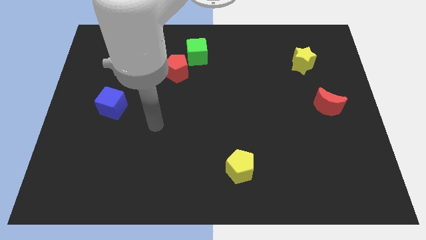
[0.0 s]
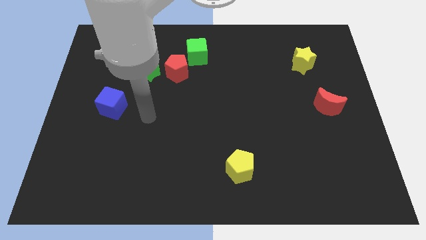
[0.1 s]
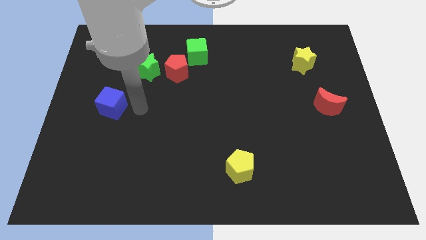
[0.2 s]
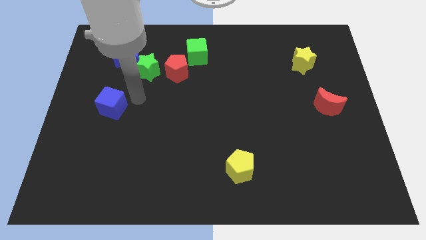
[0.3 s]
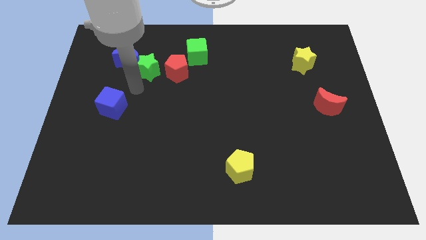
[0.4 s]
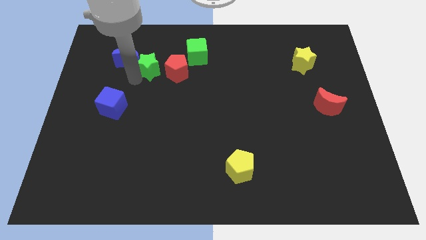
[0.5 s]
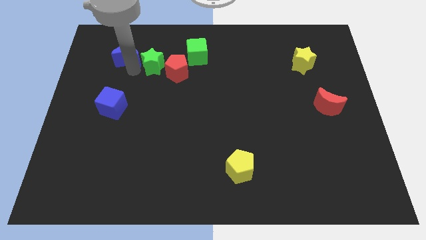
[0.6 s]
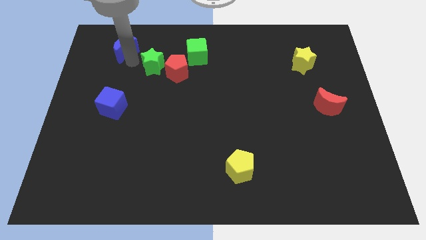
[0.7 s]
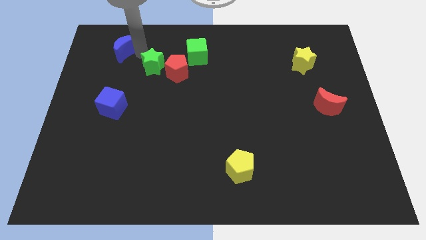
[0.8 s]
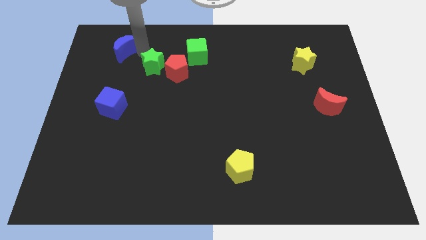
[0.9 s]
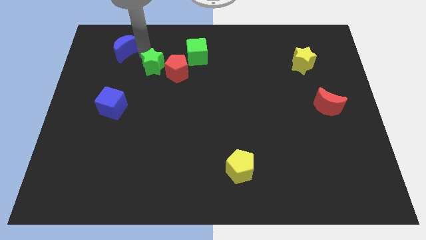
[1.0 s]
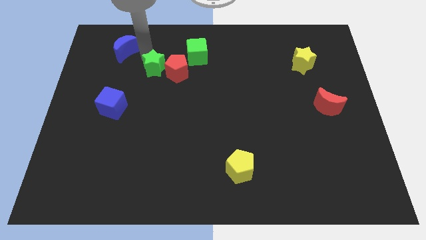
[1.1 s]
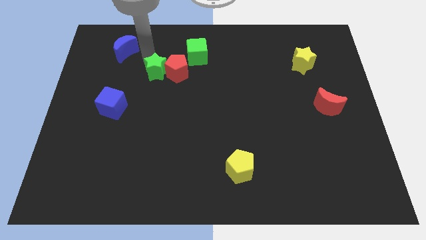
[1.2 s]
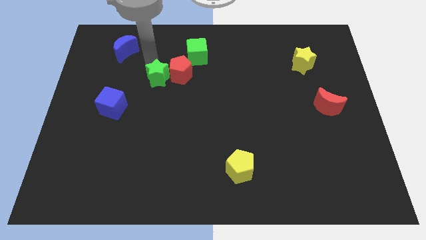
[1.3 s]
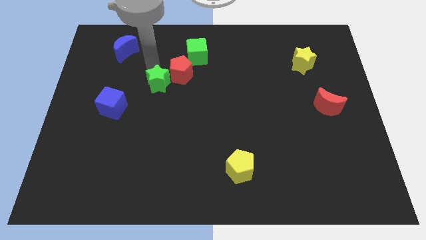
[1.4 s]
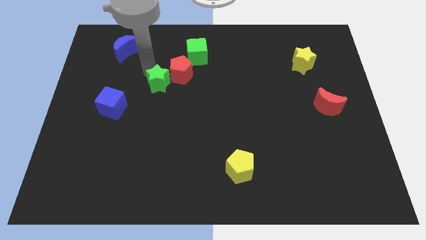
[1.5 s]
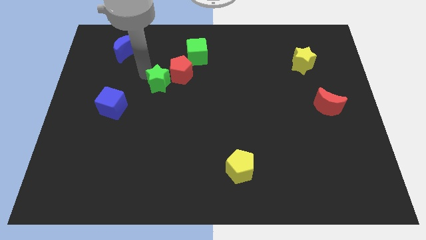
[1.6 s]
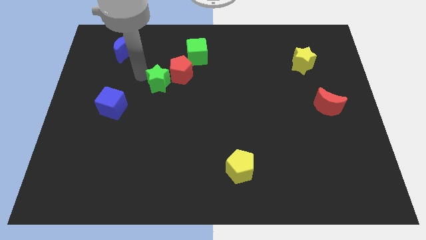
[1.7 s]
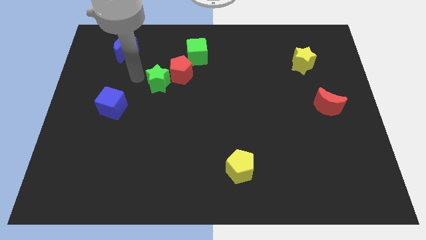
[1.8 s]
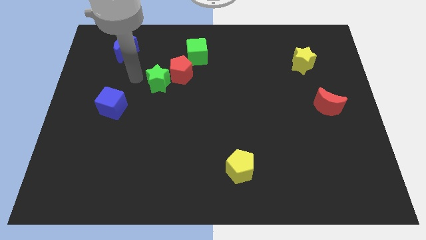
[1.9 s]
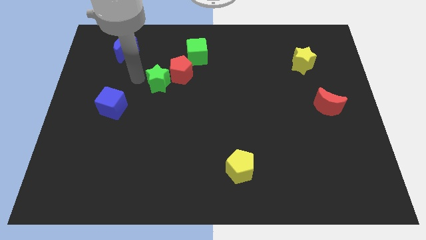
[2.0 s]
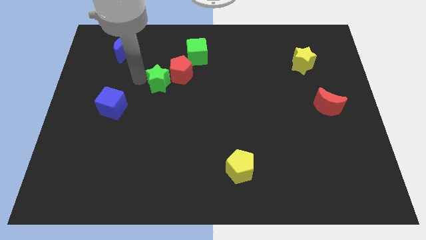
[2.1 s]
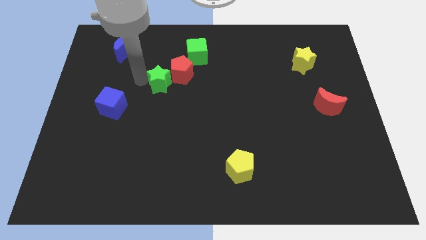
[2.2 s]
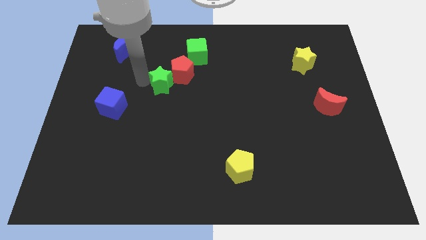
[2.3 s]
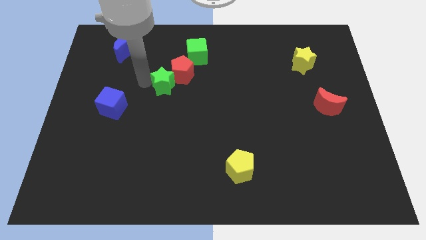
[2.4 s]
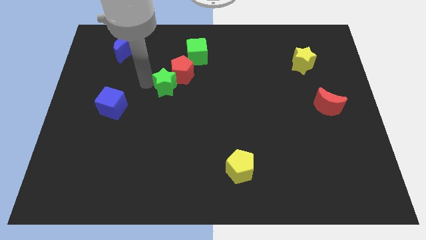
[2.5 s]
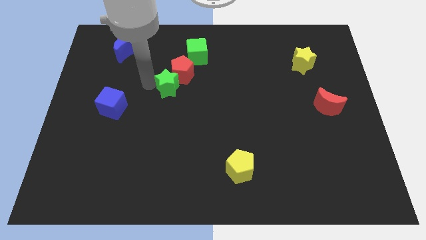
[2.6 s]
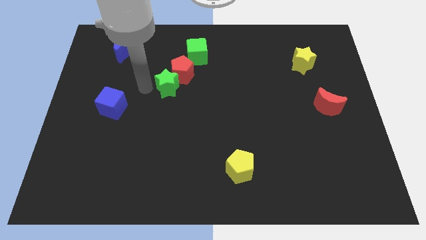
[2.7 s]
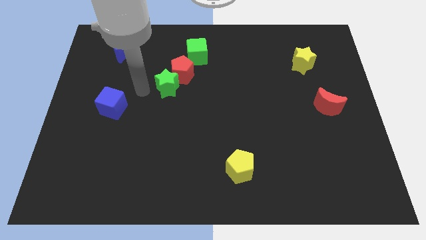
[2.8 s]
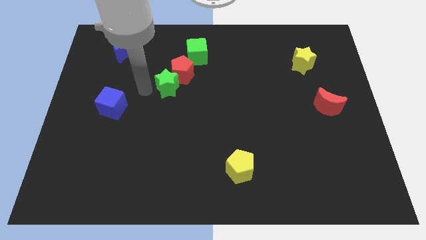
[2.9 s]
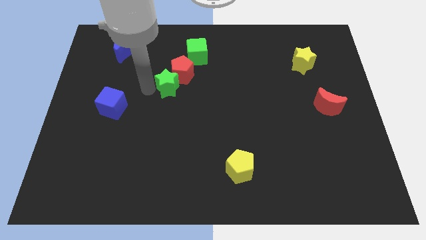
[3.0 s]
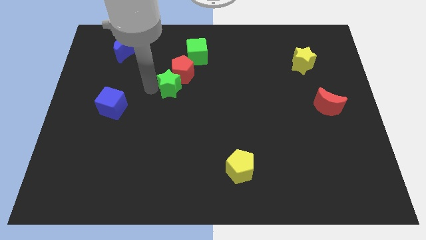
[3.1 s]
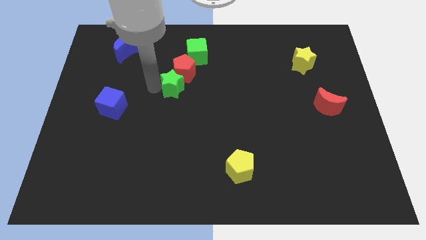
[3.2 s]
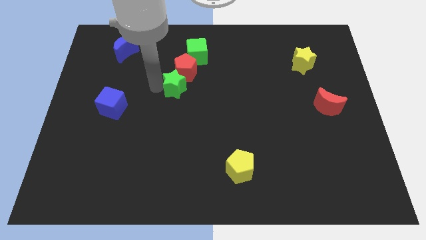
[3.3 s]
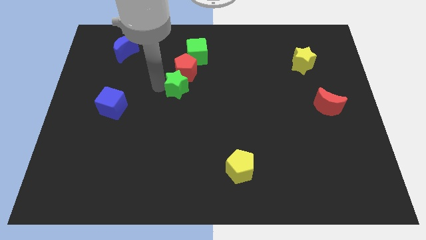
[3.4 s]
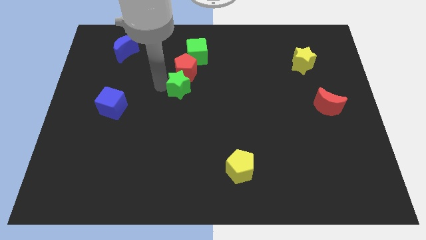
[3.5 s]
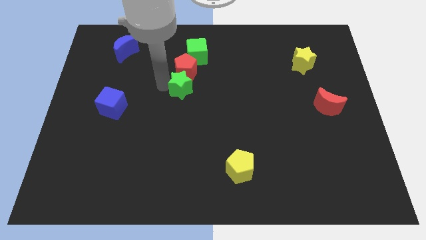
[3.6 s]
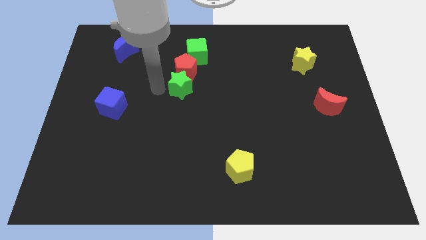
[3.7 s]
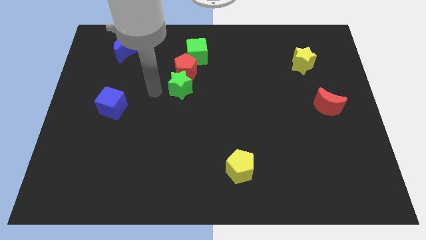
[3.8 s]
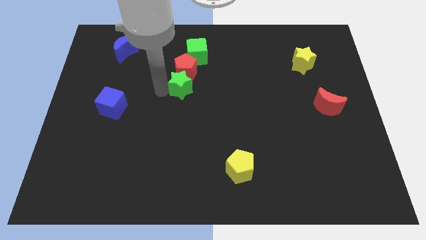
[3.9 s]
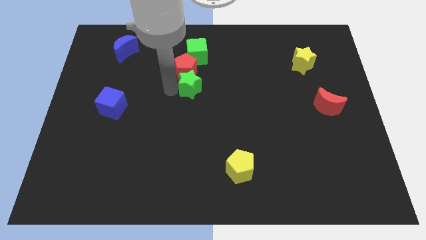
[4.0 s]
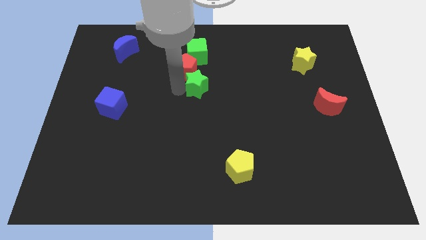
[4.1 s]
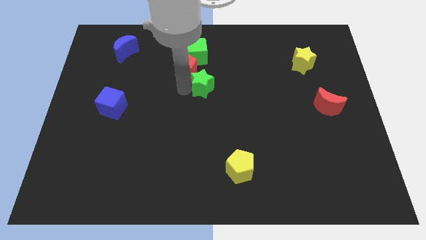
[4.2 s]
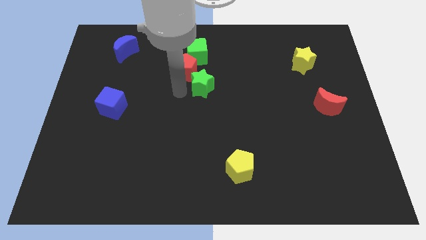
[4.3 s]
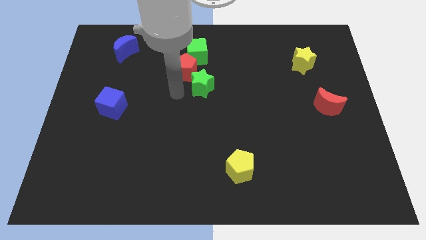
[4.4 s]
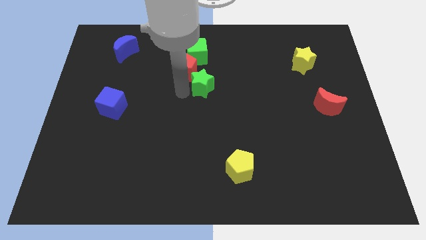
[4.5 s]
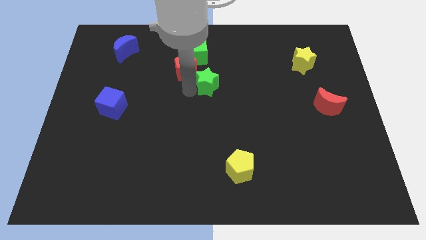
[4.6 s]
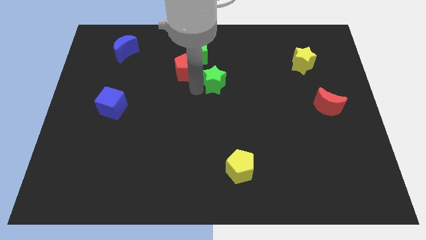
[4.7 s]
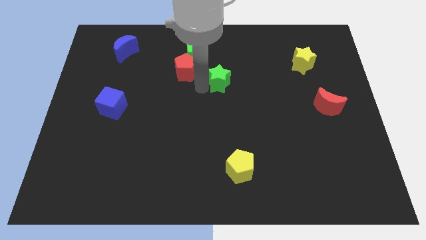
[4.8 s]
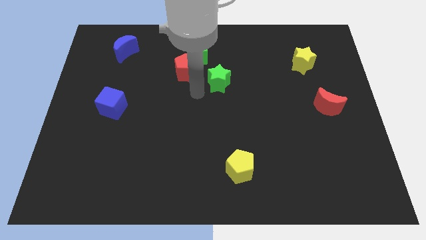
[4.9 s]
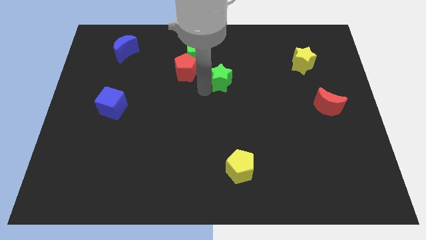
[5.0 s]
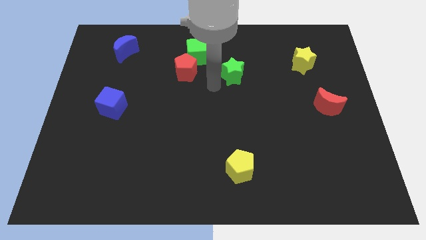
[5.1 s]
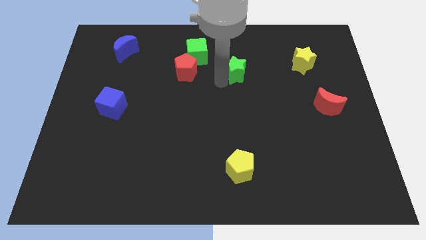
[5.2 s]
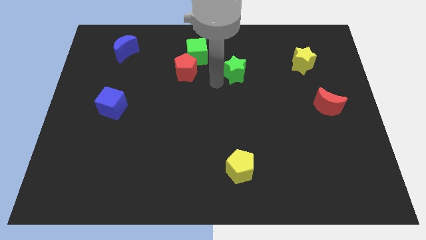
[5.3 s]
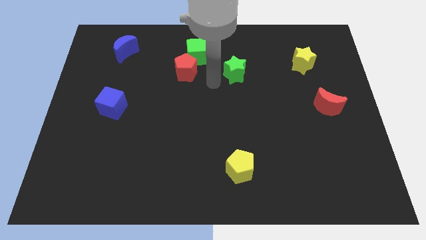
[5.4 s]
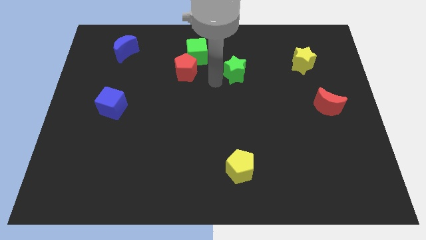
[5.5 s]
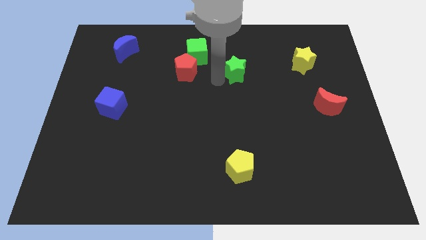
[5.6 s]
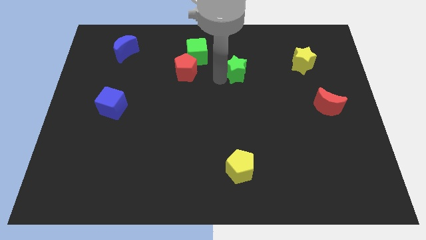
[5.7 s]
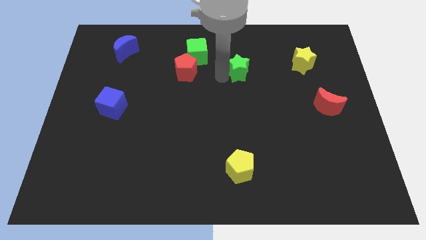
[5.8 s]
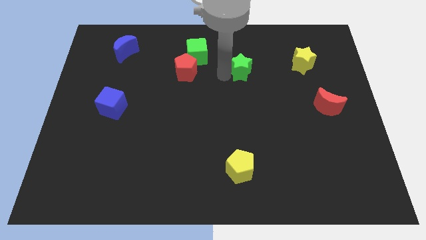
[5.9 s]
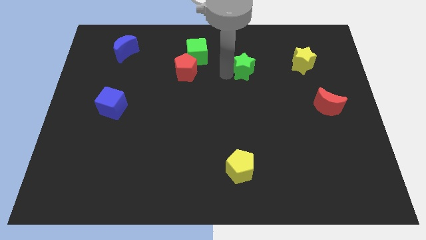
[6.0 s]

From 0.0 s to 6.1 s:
push the green star left of the yellow star

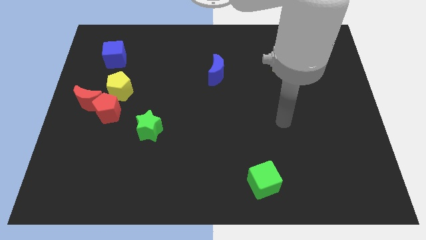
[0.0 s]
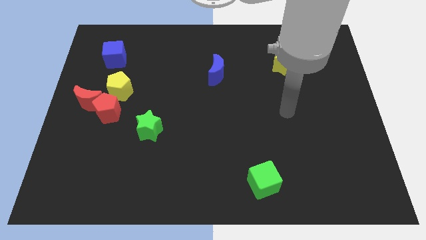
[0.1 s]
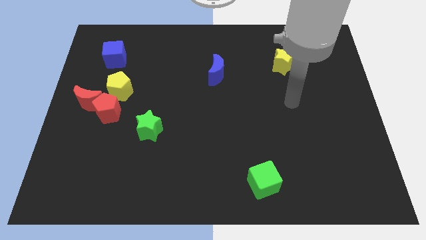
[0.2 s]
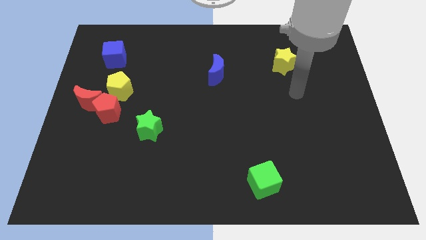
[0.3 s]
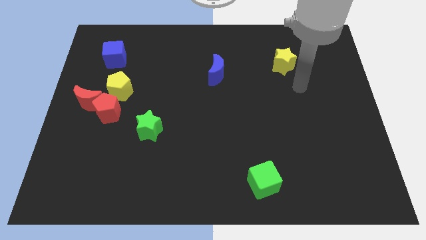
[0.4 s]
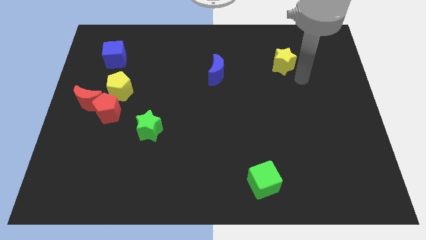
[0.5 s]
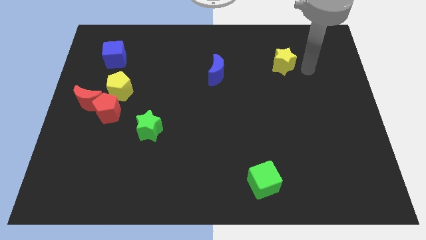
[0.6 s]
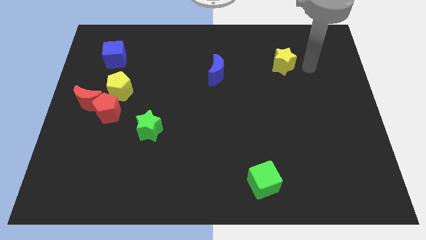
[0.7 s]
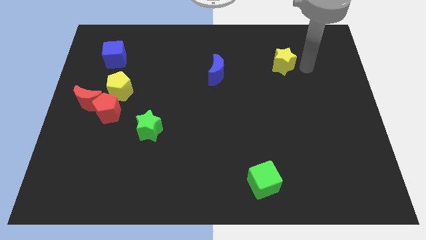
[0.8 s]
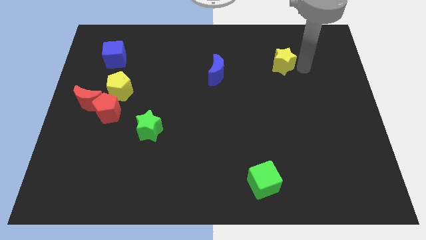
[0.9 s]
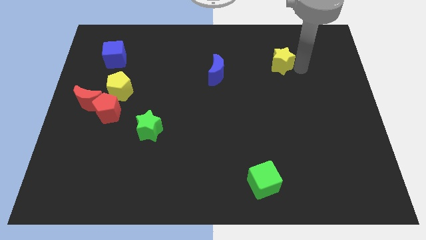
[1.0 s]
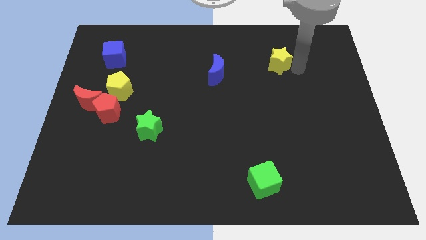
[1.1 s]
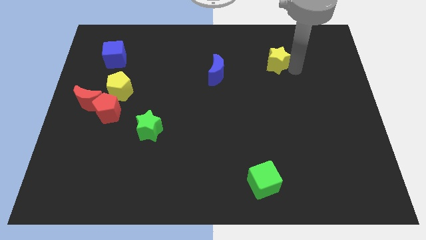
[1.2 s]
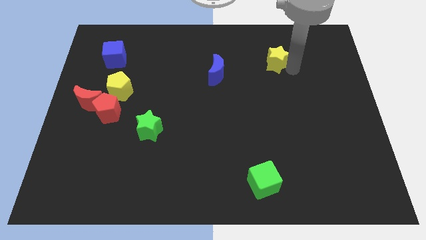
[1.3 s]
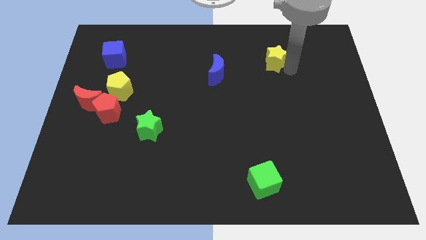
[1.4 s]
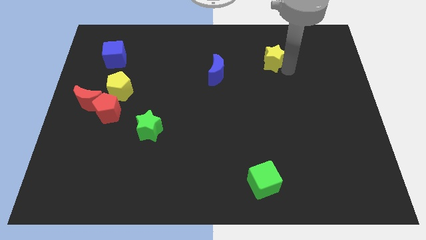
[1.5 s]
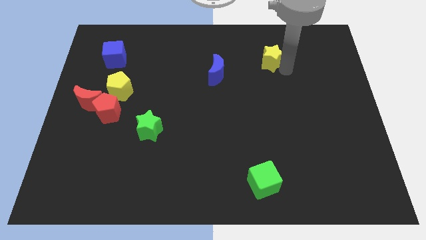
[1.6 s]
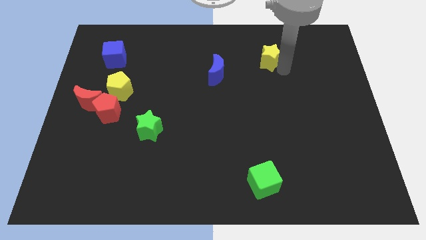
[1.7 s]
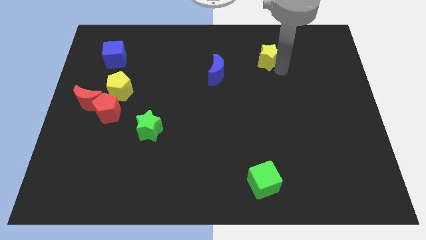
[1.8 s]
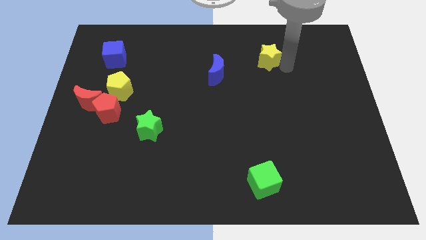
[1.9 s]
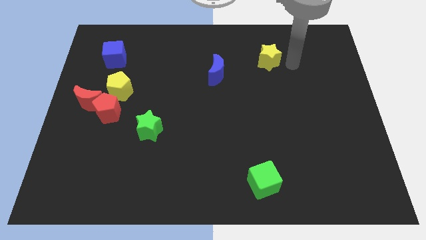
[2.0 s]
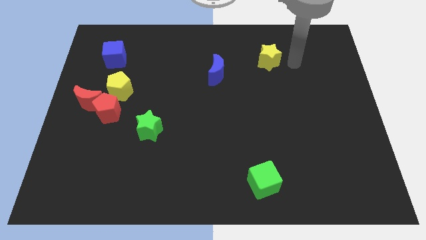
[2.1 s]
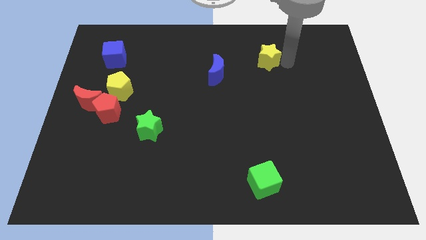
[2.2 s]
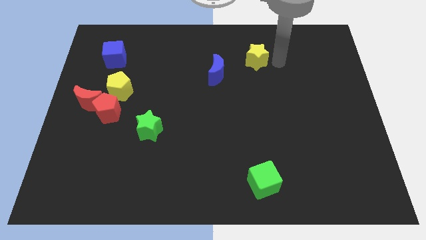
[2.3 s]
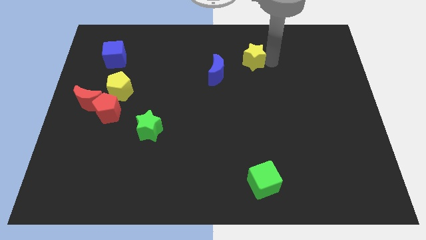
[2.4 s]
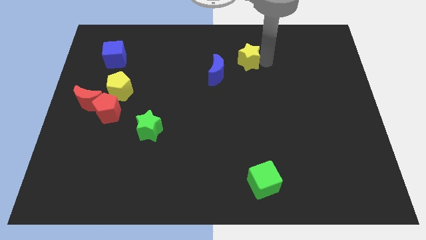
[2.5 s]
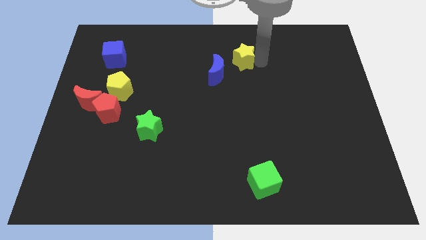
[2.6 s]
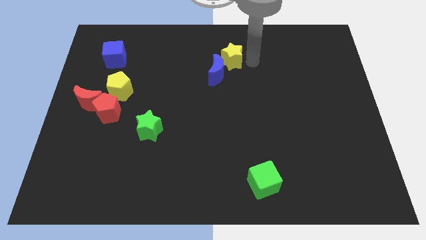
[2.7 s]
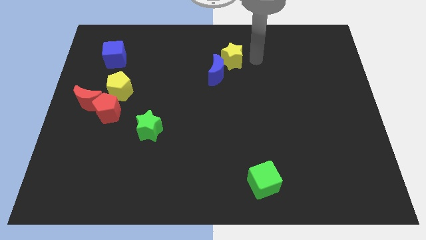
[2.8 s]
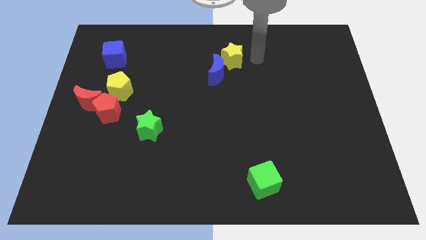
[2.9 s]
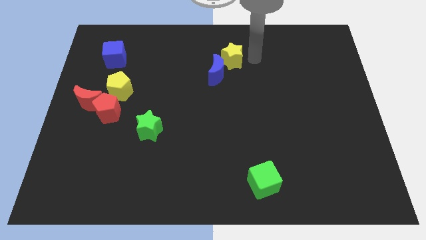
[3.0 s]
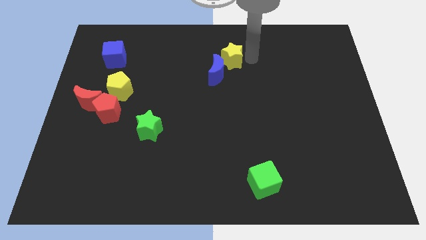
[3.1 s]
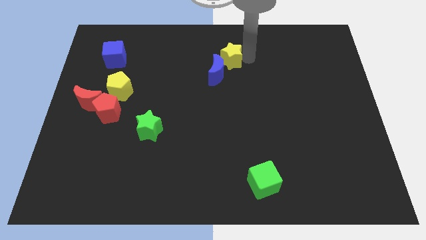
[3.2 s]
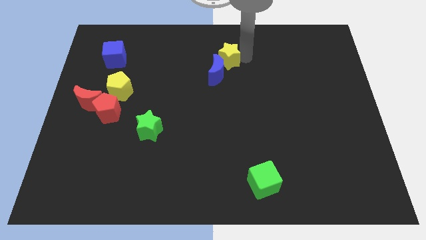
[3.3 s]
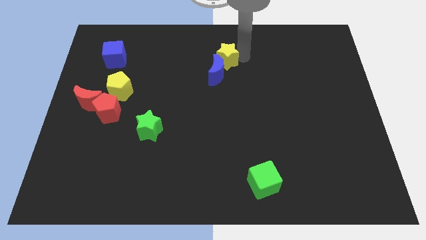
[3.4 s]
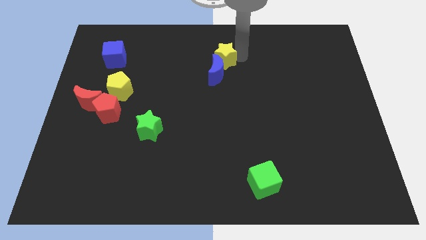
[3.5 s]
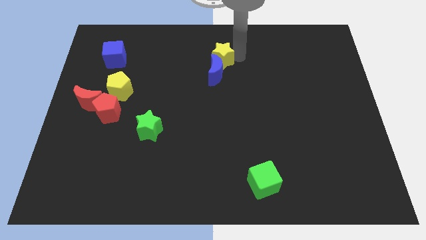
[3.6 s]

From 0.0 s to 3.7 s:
slide the yellow star to the top left side of the blue moon
